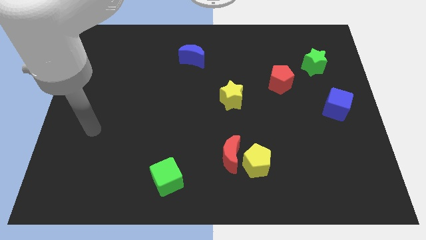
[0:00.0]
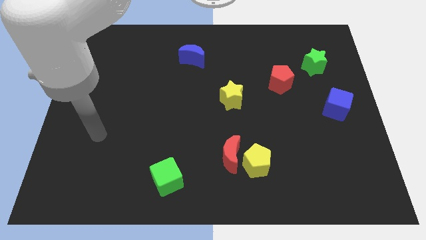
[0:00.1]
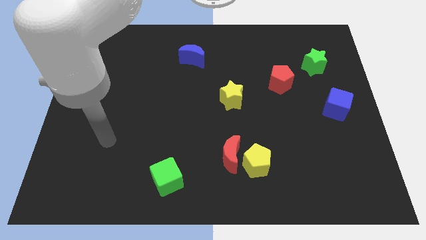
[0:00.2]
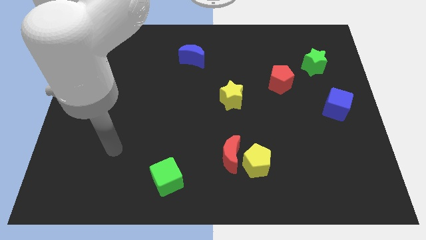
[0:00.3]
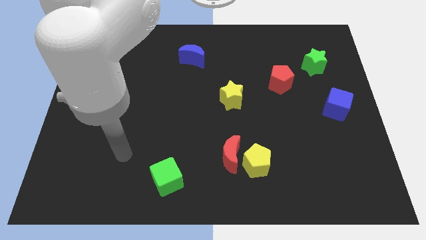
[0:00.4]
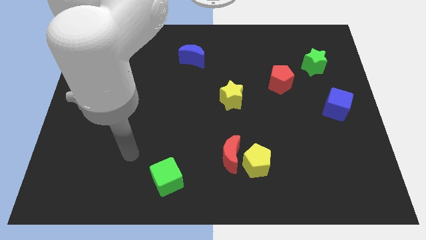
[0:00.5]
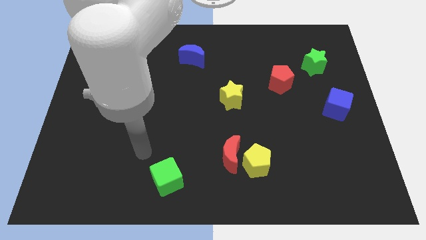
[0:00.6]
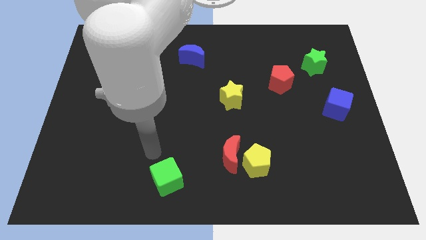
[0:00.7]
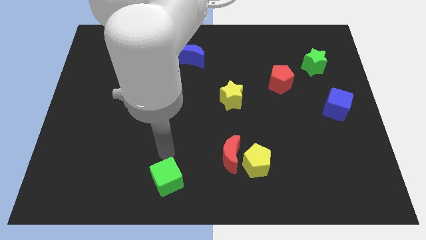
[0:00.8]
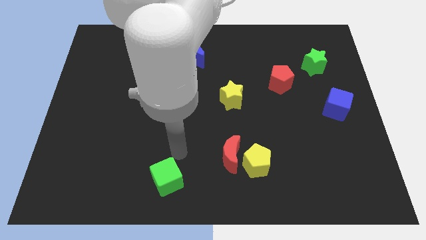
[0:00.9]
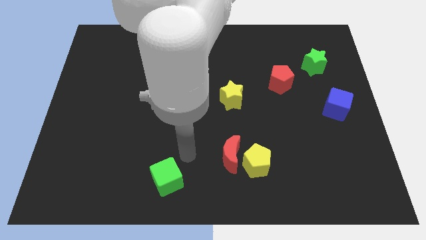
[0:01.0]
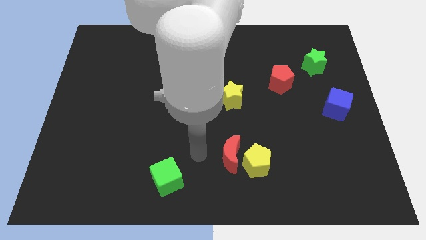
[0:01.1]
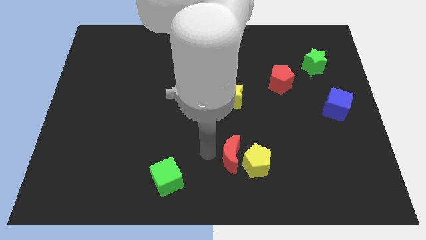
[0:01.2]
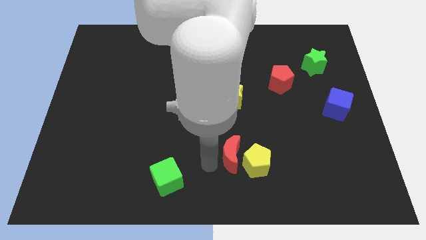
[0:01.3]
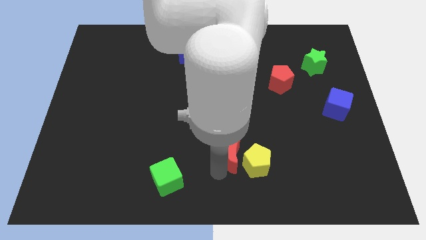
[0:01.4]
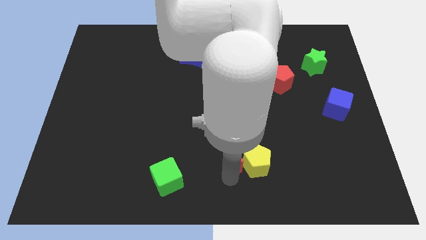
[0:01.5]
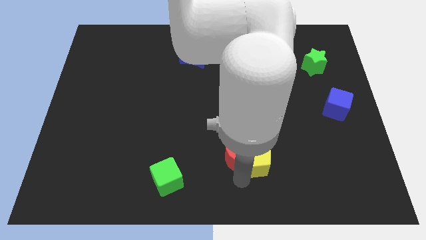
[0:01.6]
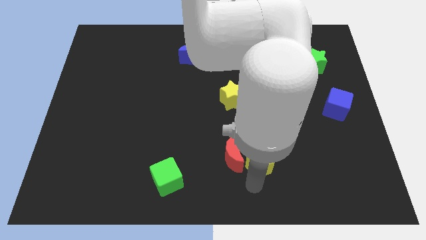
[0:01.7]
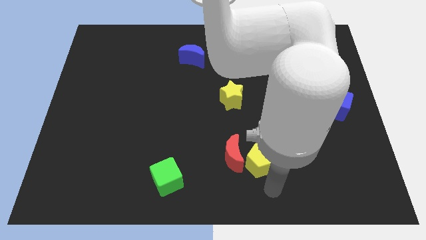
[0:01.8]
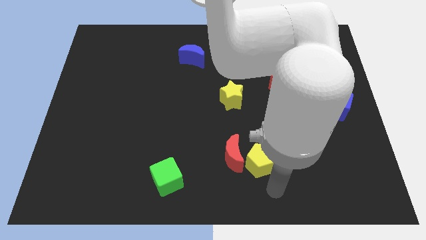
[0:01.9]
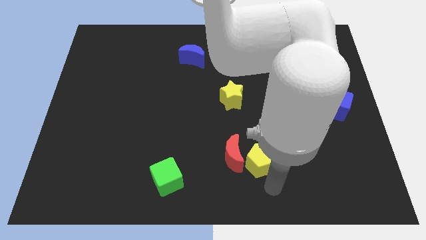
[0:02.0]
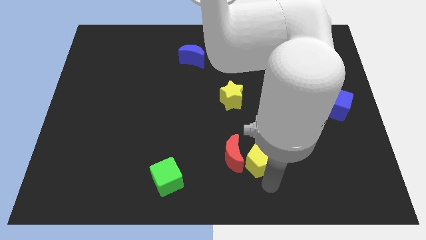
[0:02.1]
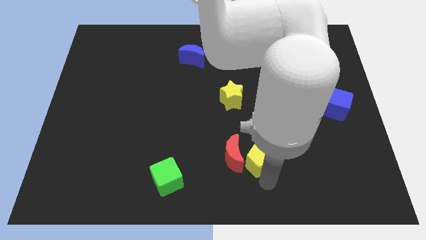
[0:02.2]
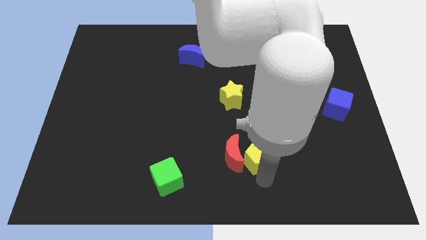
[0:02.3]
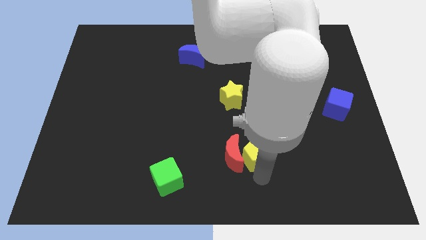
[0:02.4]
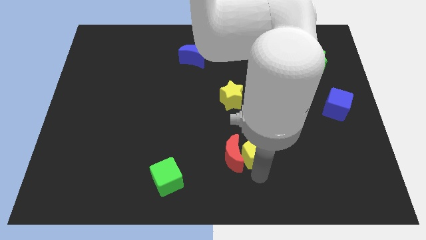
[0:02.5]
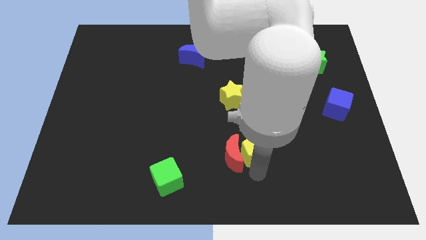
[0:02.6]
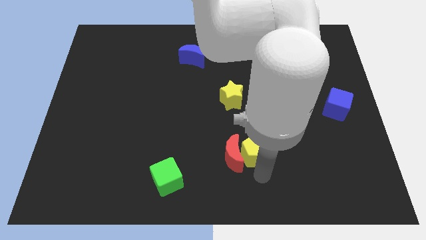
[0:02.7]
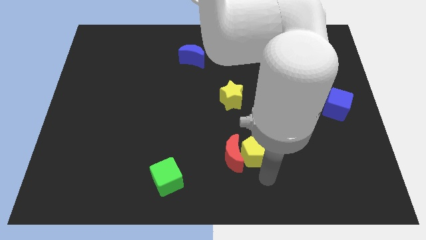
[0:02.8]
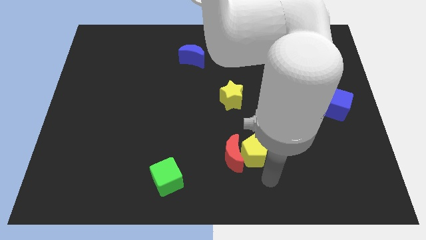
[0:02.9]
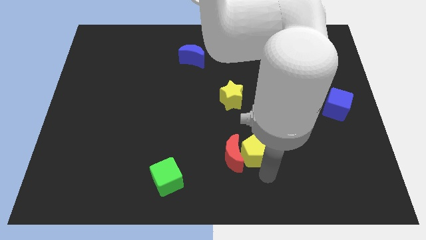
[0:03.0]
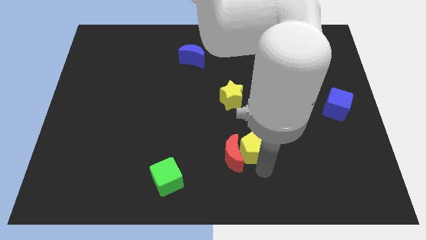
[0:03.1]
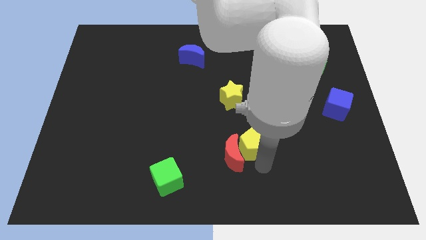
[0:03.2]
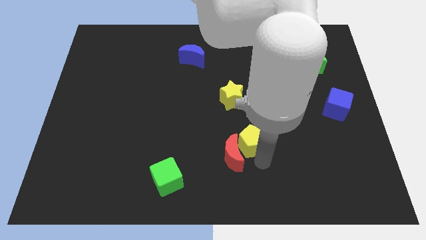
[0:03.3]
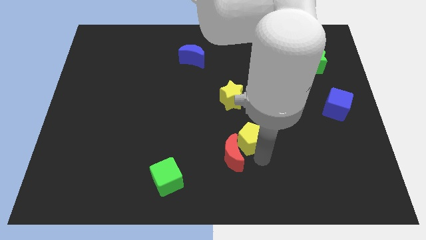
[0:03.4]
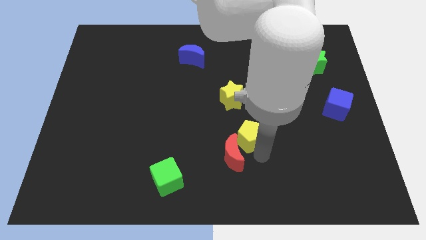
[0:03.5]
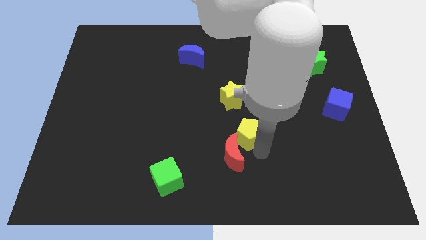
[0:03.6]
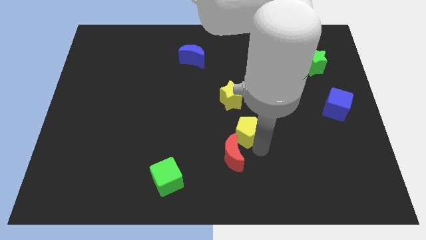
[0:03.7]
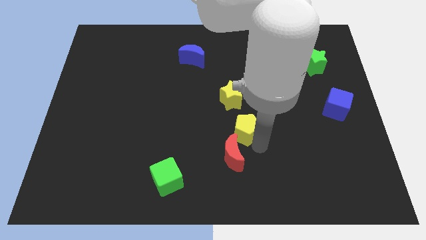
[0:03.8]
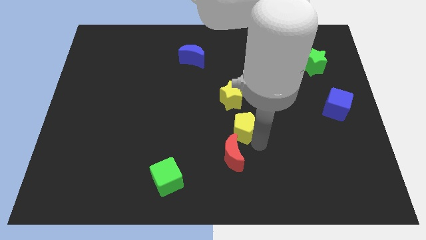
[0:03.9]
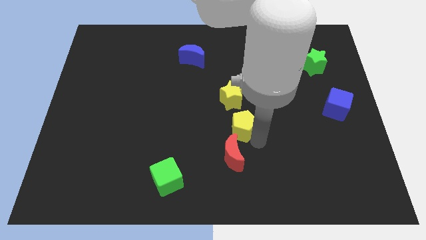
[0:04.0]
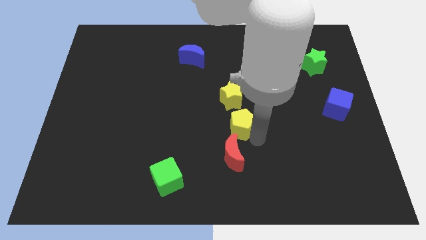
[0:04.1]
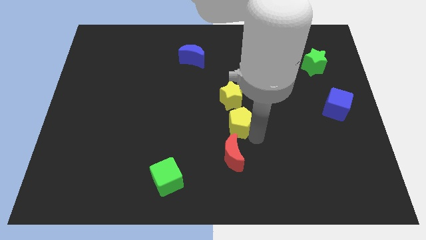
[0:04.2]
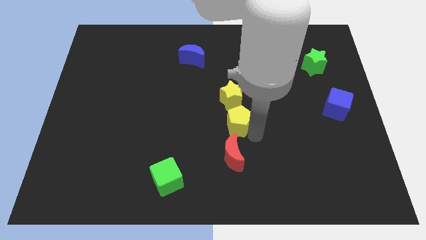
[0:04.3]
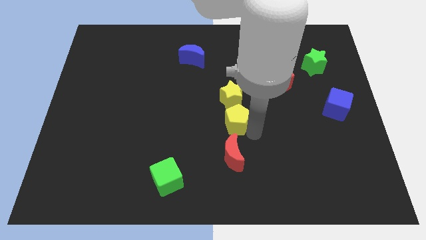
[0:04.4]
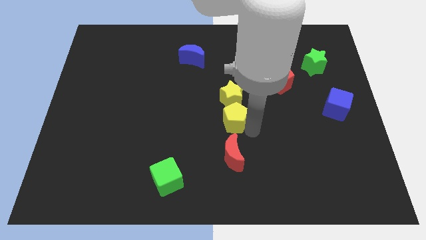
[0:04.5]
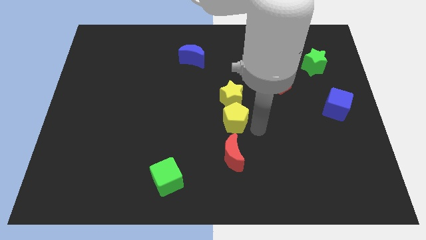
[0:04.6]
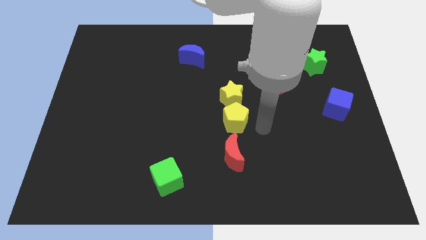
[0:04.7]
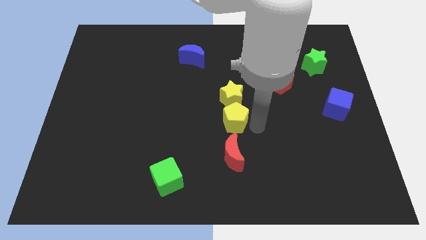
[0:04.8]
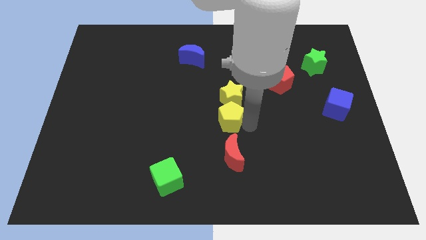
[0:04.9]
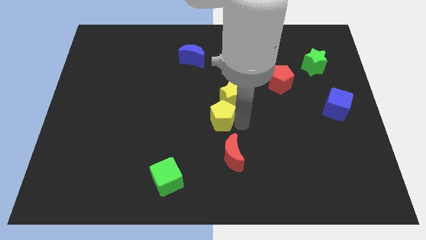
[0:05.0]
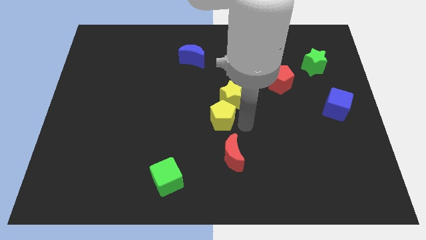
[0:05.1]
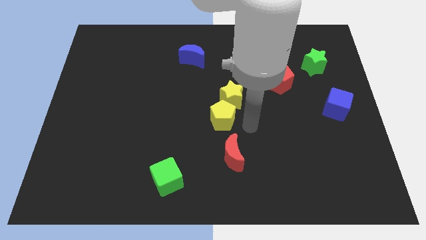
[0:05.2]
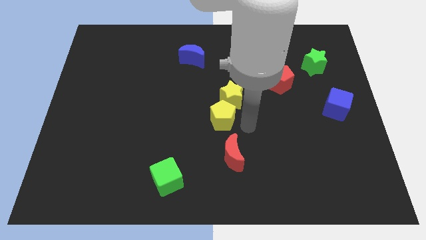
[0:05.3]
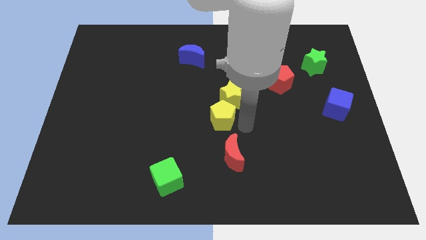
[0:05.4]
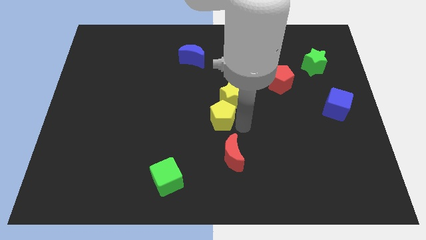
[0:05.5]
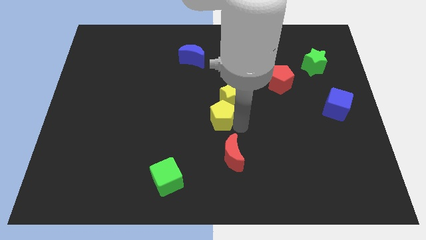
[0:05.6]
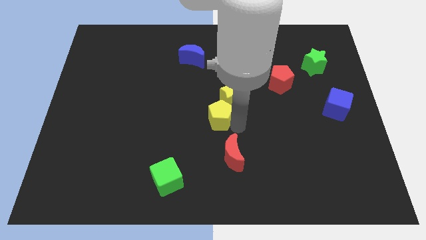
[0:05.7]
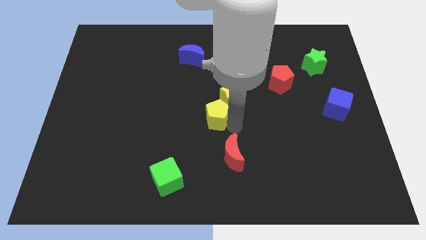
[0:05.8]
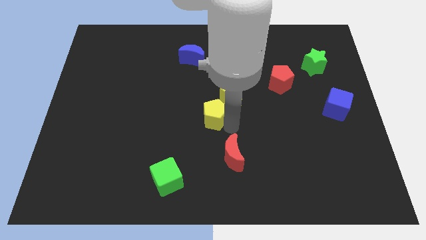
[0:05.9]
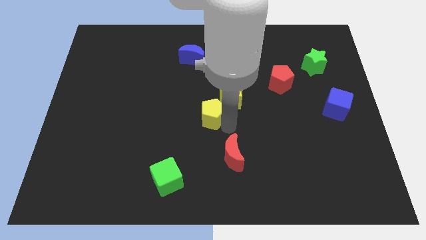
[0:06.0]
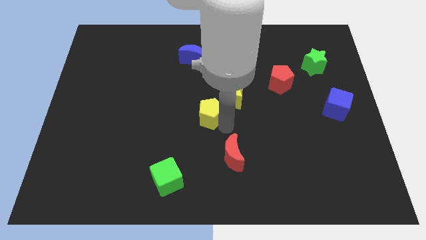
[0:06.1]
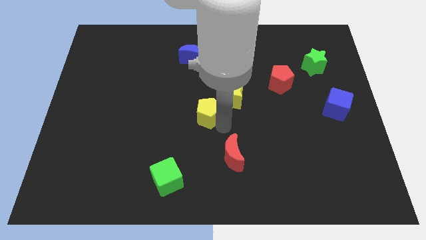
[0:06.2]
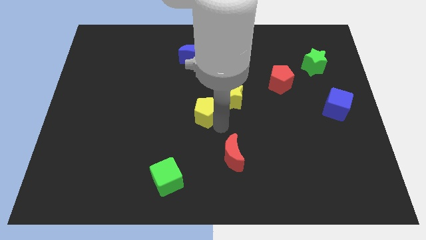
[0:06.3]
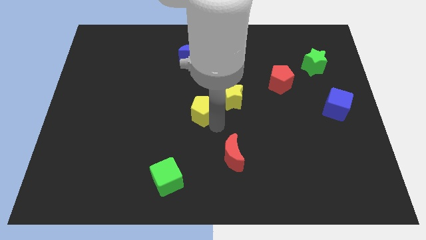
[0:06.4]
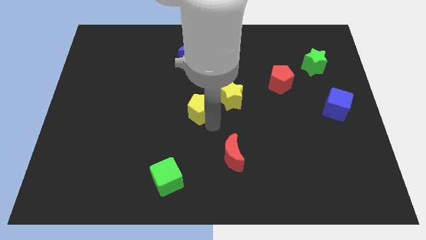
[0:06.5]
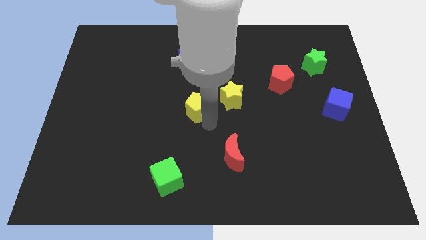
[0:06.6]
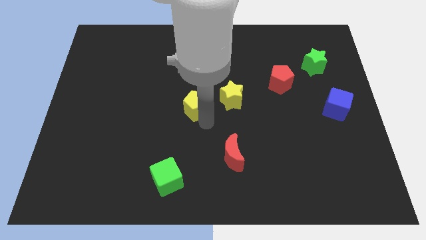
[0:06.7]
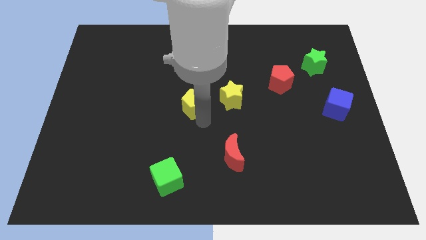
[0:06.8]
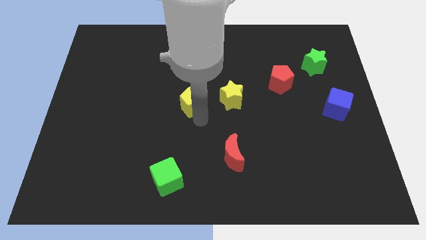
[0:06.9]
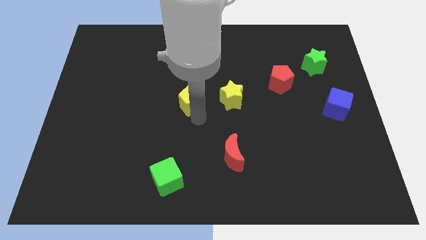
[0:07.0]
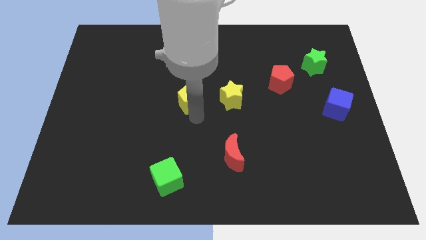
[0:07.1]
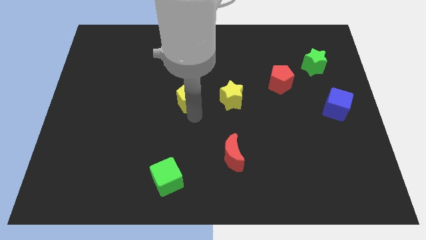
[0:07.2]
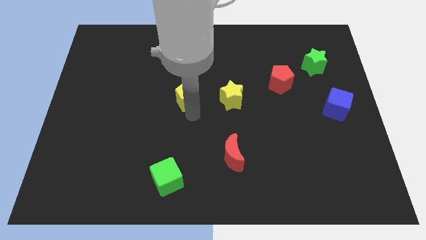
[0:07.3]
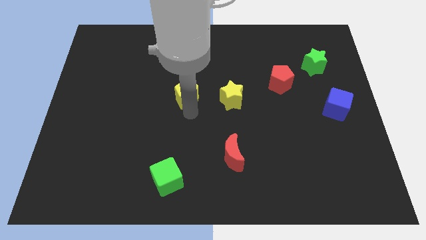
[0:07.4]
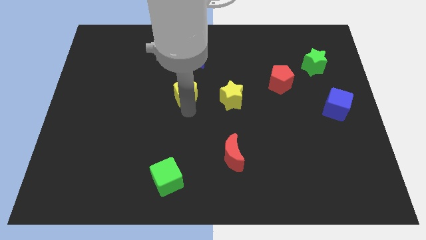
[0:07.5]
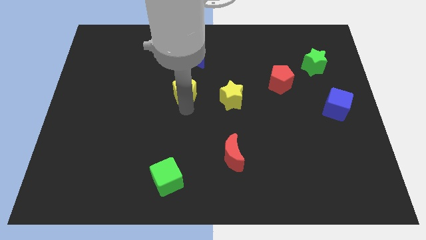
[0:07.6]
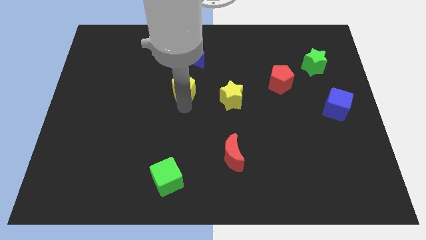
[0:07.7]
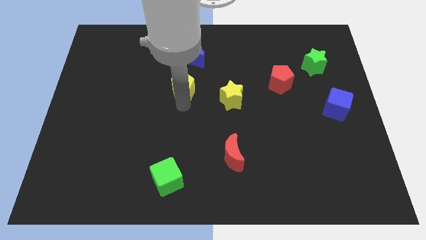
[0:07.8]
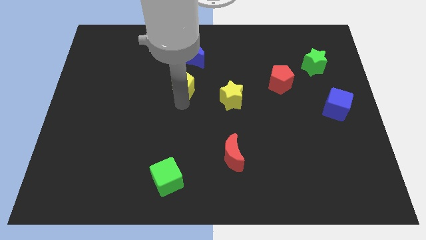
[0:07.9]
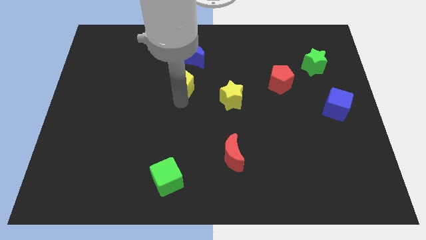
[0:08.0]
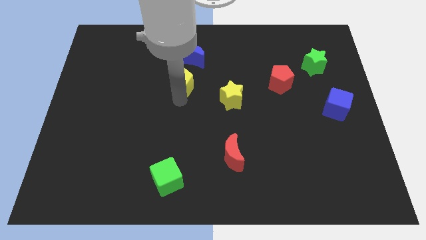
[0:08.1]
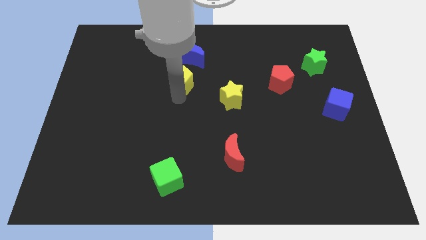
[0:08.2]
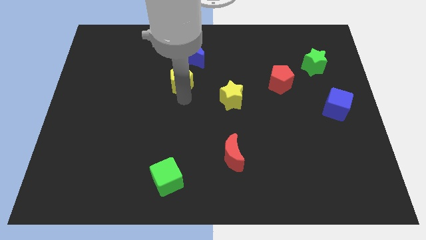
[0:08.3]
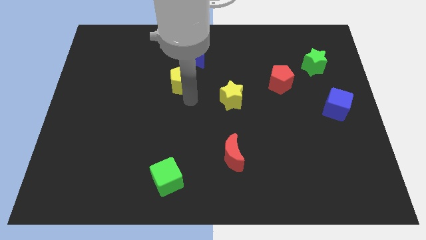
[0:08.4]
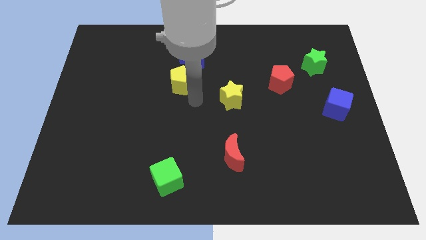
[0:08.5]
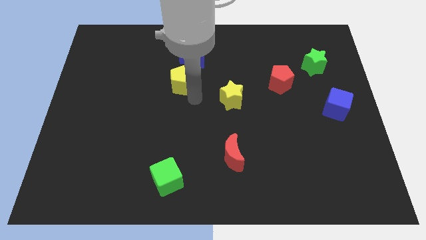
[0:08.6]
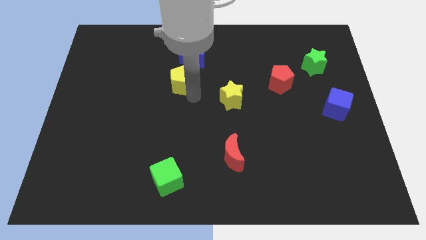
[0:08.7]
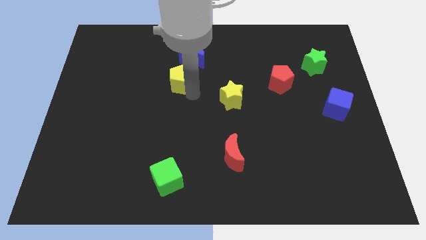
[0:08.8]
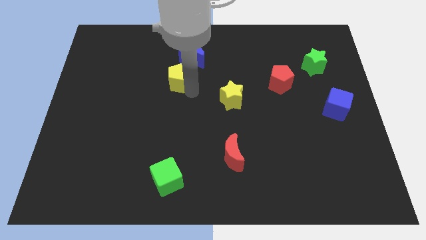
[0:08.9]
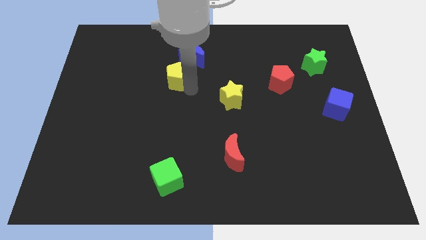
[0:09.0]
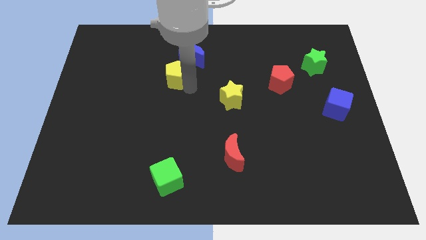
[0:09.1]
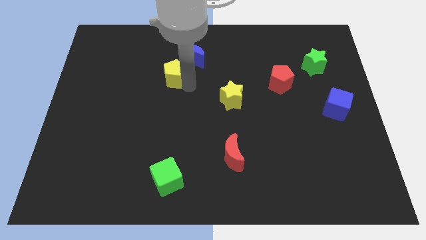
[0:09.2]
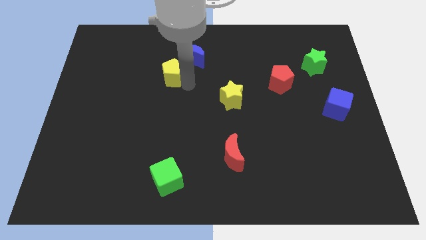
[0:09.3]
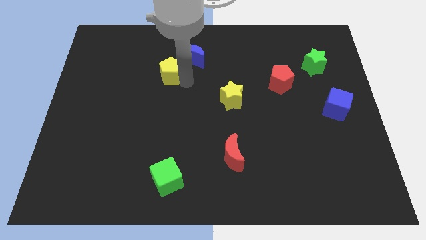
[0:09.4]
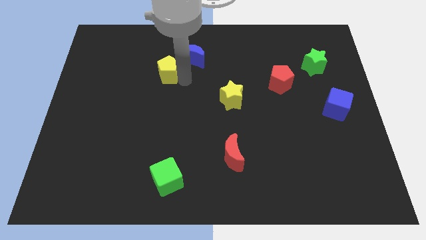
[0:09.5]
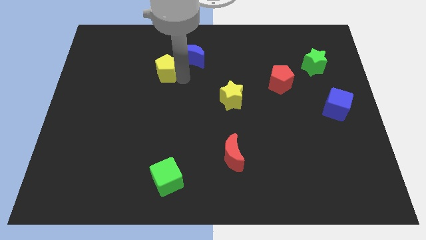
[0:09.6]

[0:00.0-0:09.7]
put the yellow pentagon left of the blue moon
